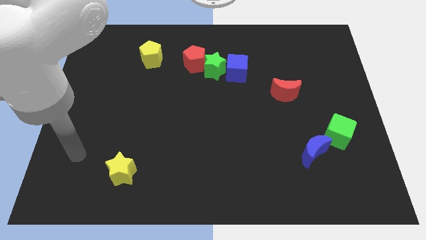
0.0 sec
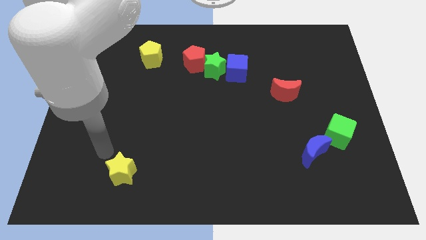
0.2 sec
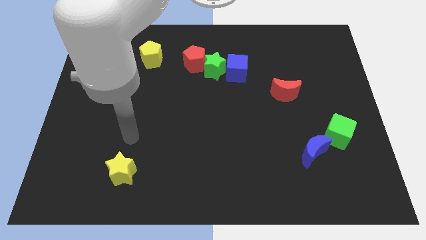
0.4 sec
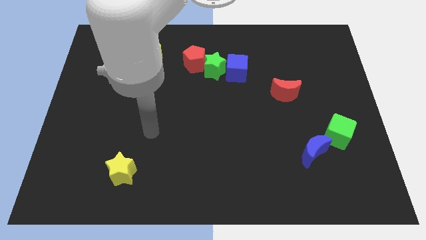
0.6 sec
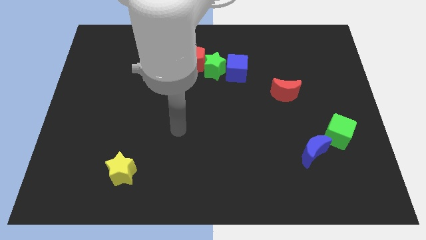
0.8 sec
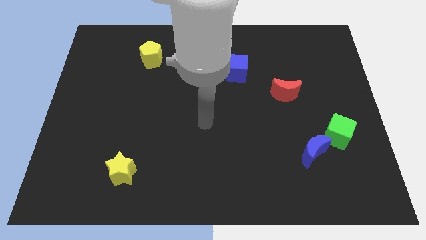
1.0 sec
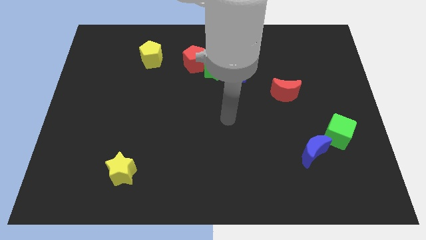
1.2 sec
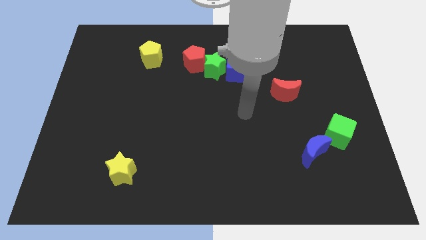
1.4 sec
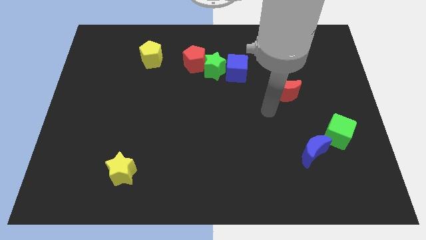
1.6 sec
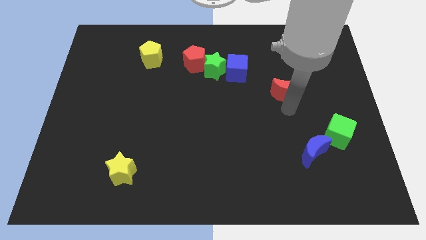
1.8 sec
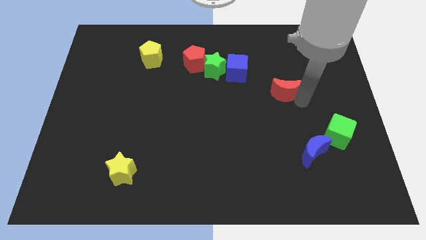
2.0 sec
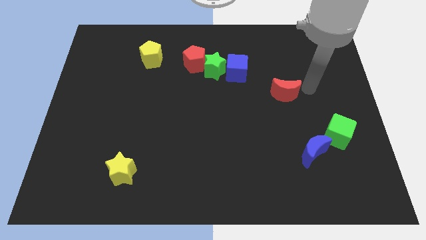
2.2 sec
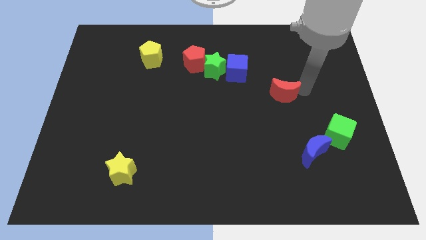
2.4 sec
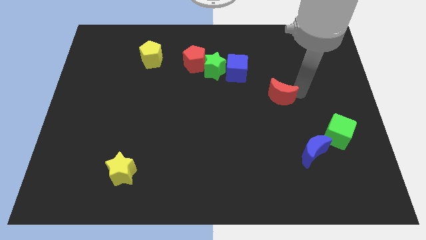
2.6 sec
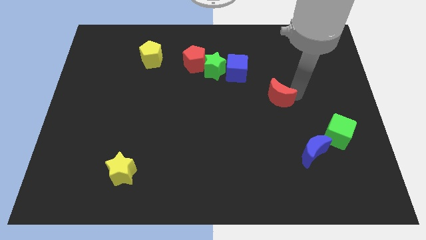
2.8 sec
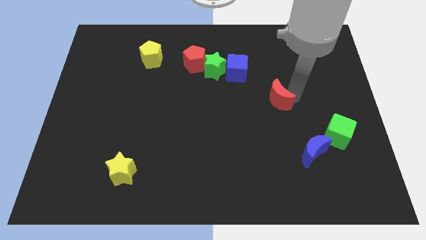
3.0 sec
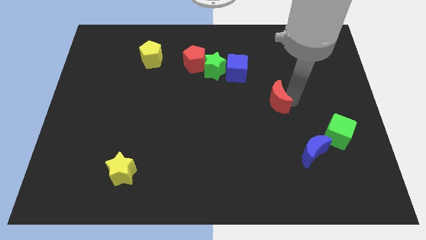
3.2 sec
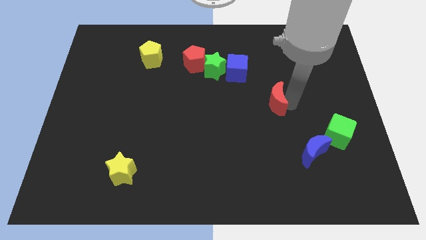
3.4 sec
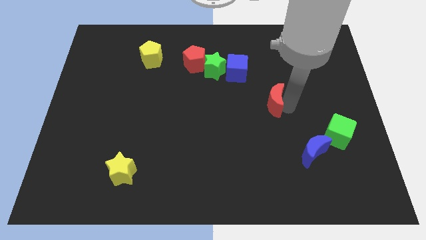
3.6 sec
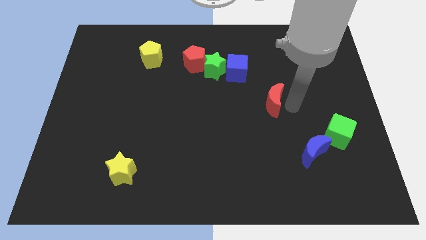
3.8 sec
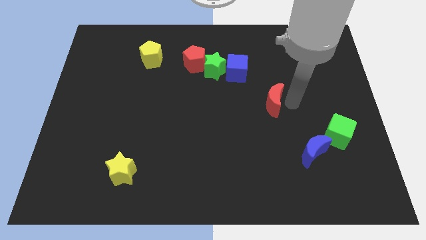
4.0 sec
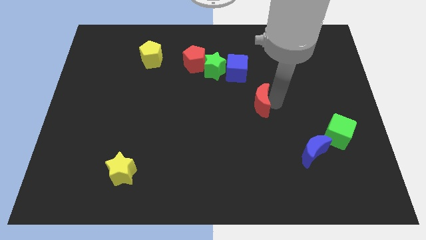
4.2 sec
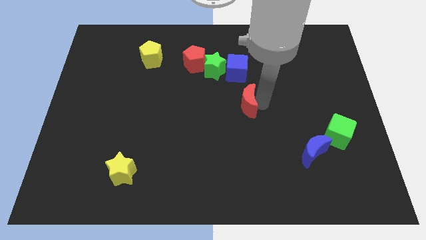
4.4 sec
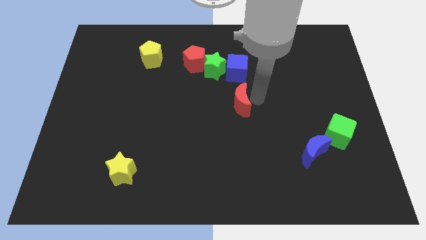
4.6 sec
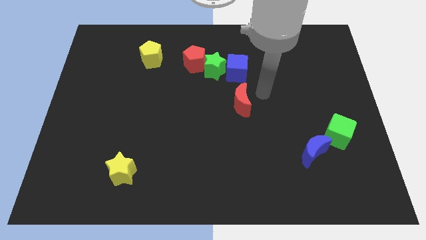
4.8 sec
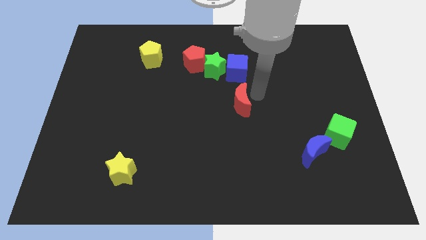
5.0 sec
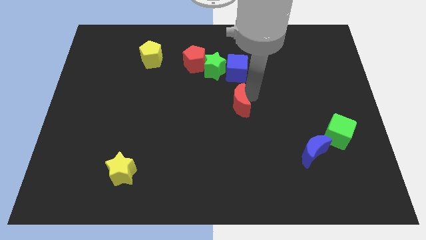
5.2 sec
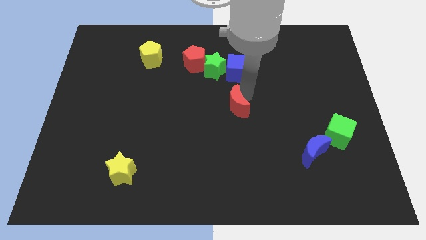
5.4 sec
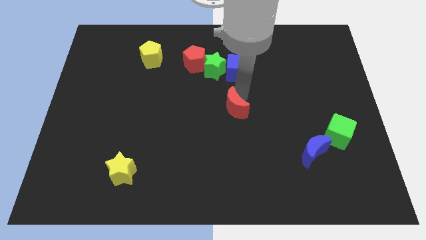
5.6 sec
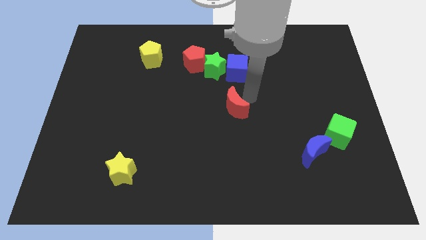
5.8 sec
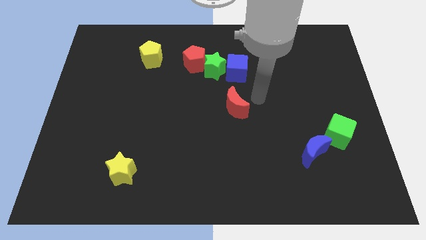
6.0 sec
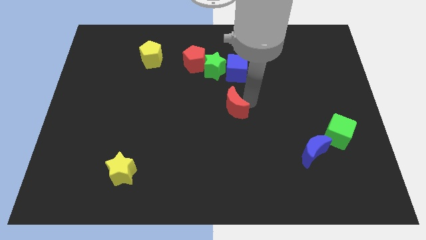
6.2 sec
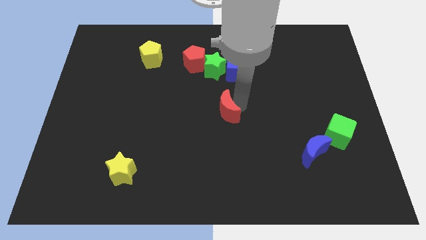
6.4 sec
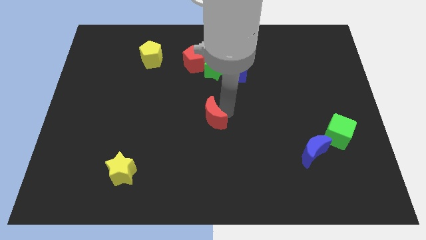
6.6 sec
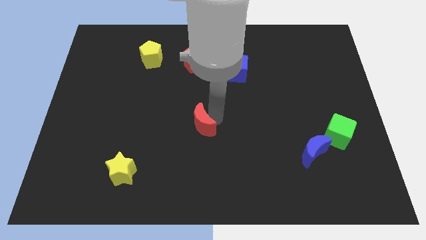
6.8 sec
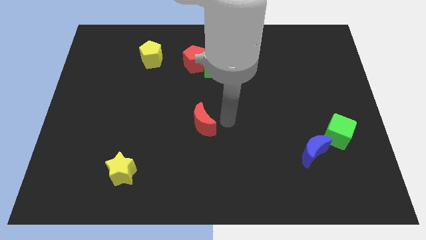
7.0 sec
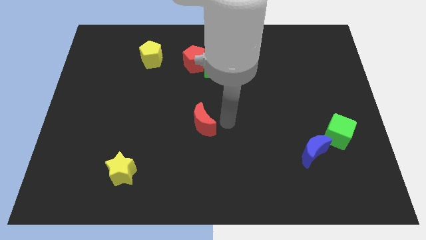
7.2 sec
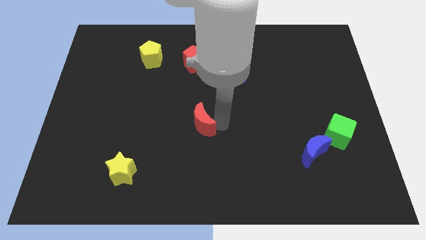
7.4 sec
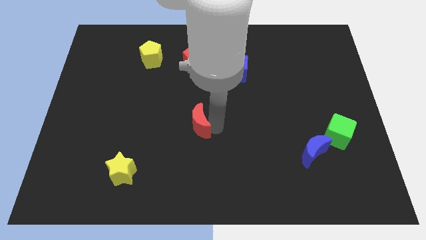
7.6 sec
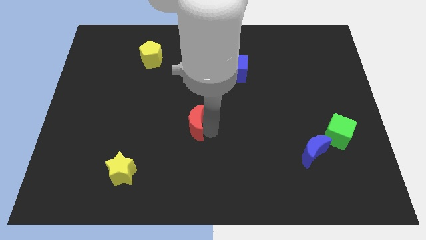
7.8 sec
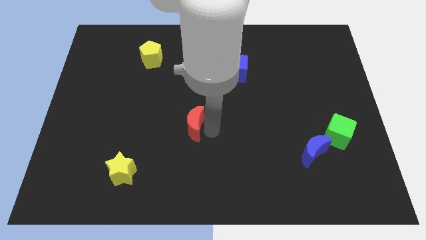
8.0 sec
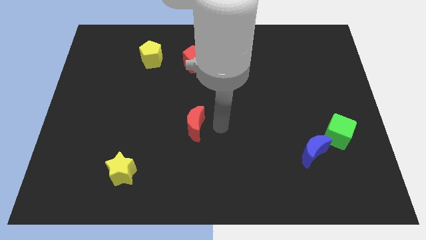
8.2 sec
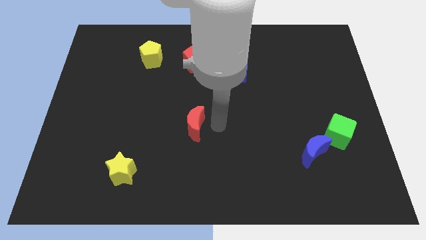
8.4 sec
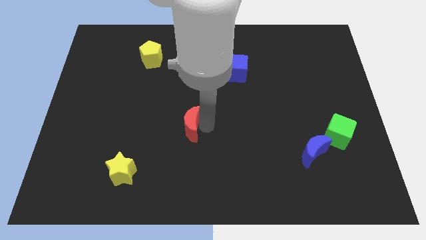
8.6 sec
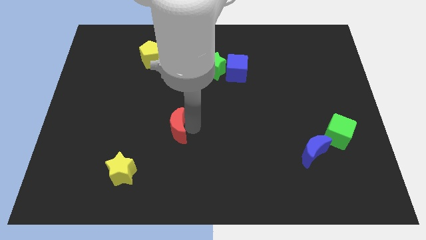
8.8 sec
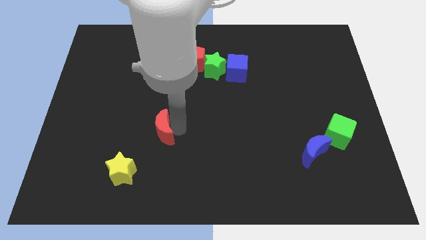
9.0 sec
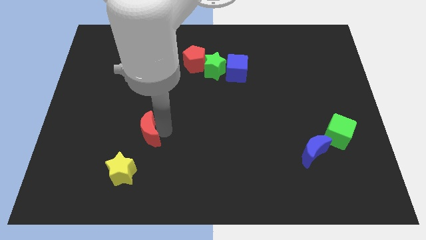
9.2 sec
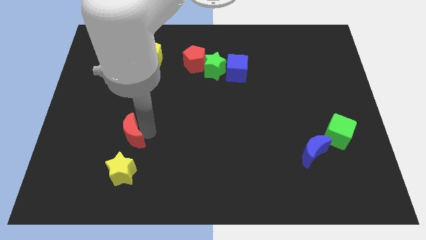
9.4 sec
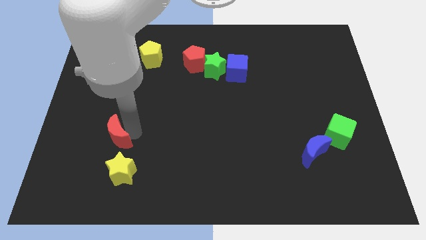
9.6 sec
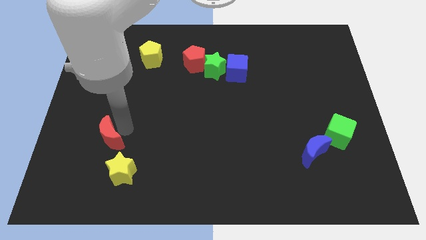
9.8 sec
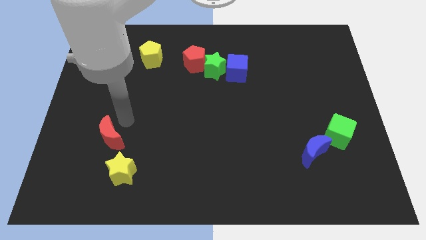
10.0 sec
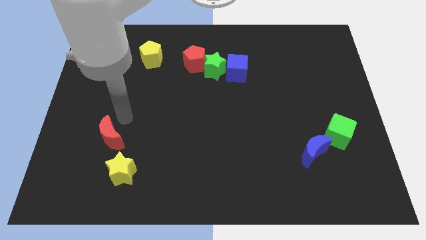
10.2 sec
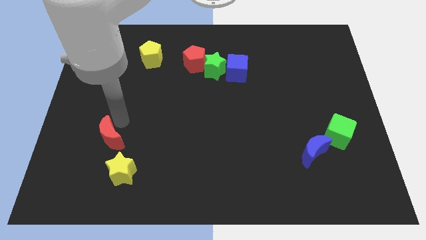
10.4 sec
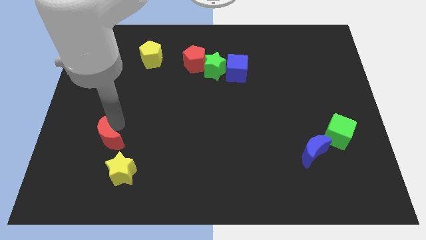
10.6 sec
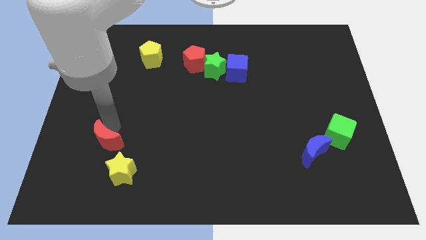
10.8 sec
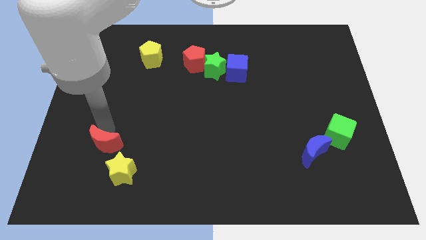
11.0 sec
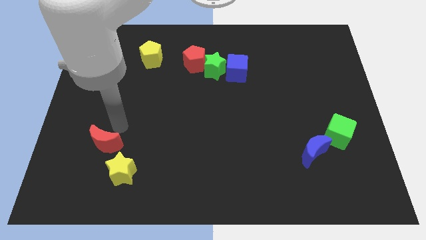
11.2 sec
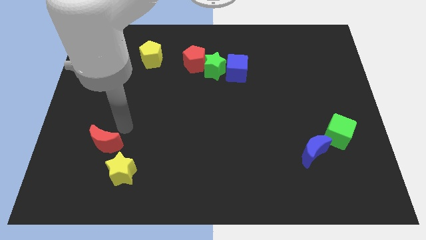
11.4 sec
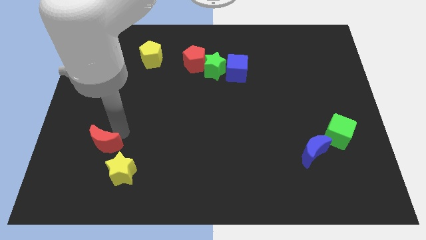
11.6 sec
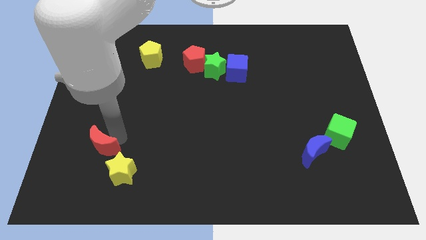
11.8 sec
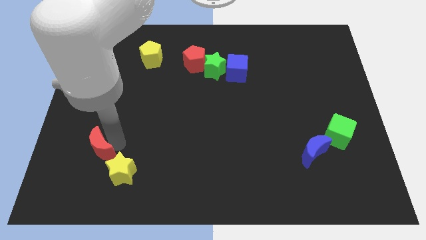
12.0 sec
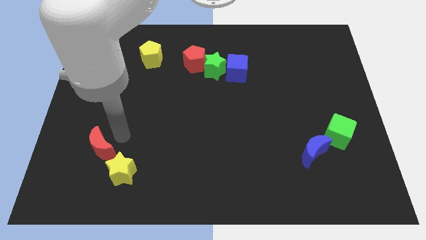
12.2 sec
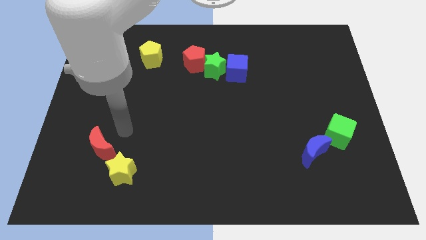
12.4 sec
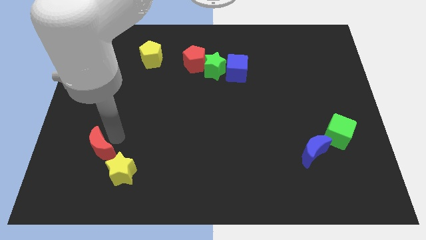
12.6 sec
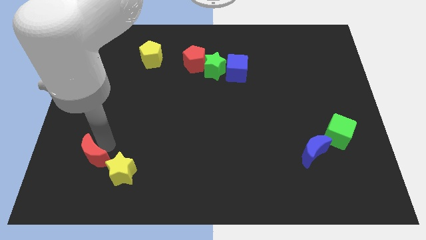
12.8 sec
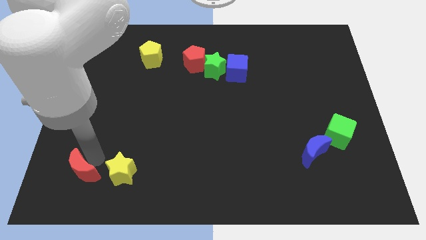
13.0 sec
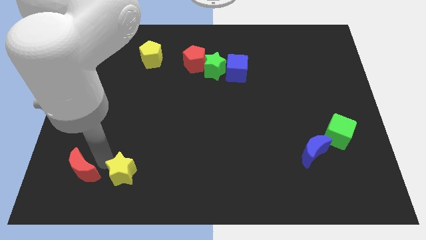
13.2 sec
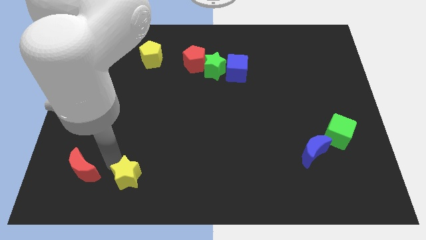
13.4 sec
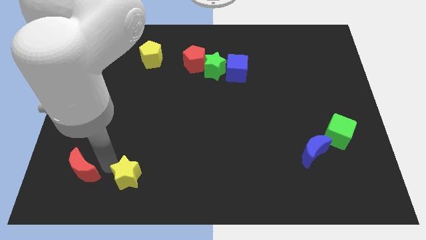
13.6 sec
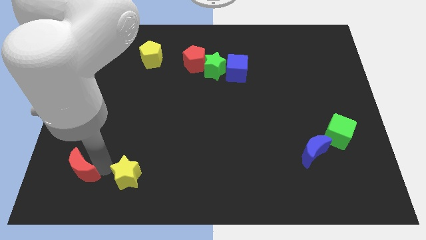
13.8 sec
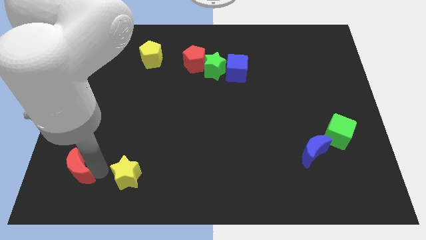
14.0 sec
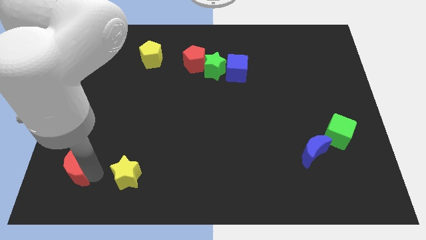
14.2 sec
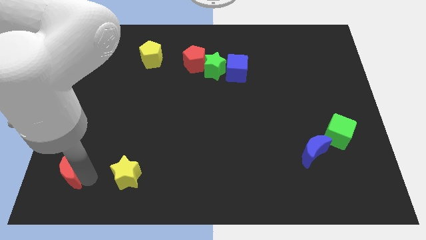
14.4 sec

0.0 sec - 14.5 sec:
push the red moon to the bottom left corner
